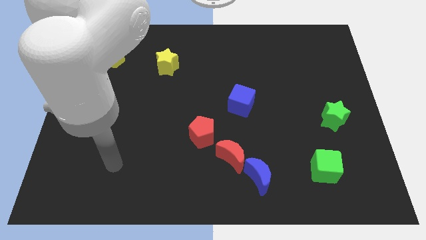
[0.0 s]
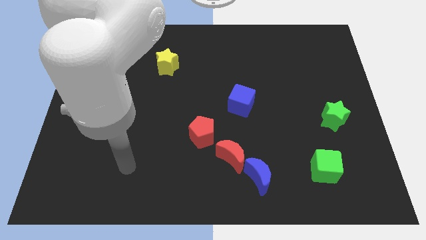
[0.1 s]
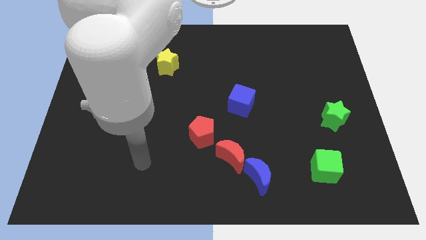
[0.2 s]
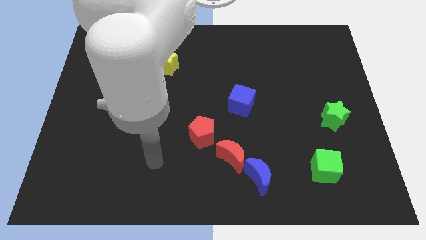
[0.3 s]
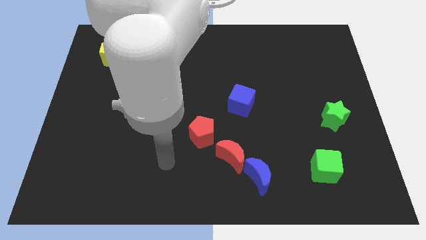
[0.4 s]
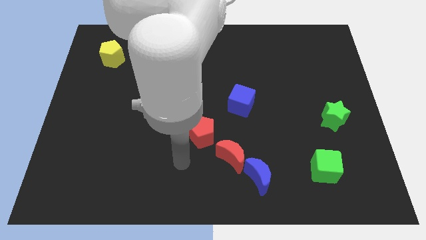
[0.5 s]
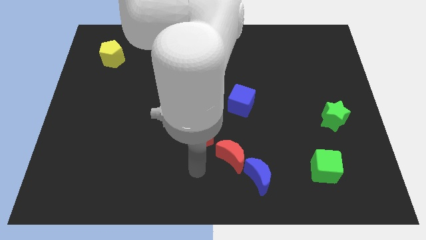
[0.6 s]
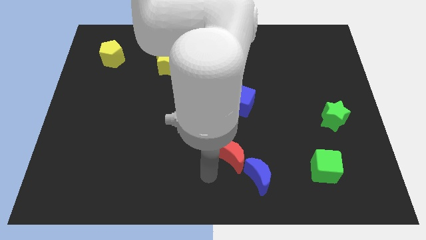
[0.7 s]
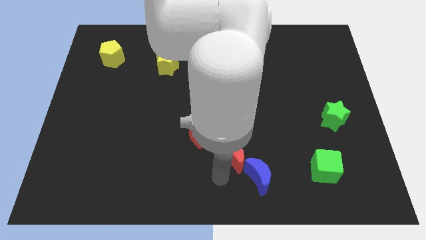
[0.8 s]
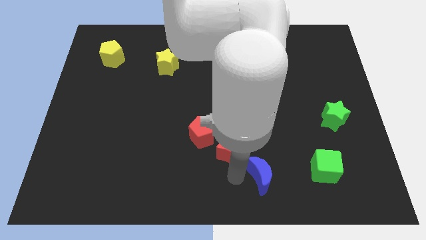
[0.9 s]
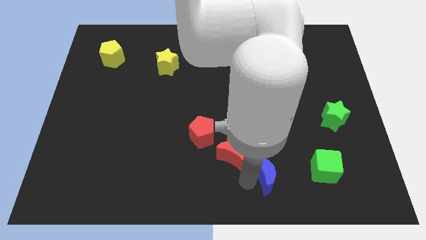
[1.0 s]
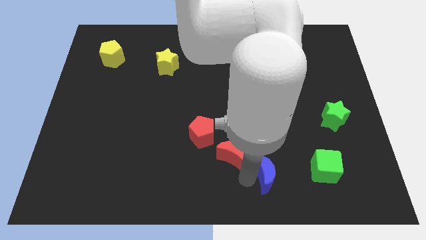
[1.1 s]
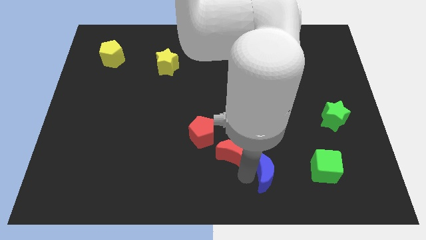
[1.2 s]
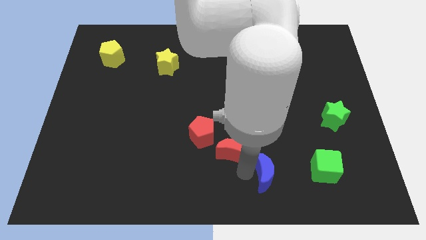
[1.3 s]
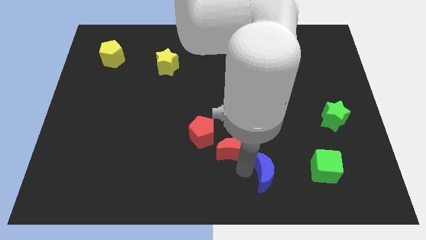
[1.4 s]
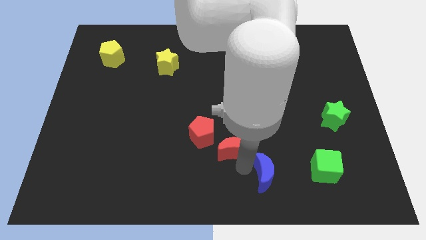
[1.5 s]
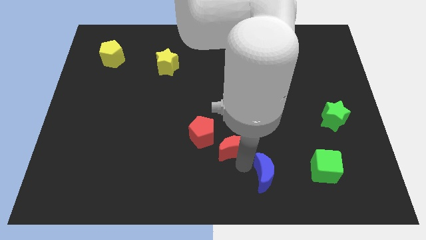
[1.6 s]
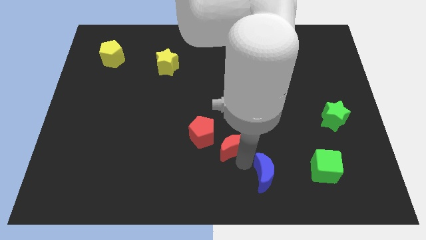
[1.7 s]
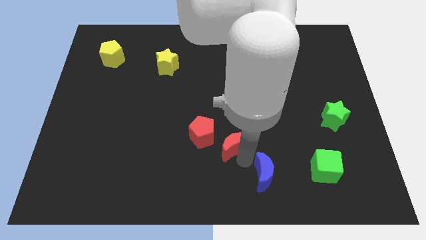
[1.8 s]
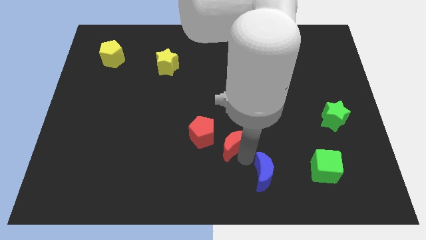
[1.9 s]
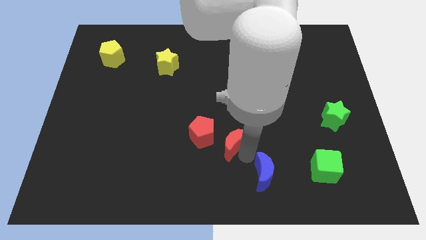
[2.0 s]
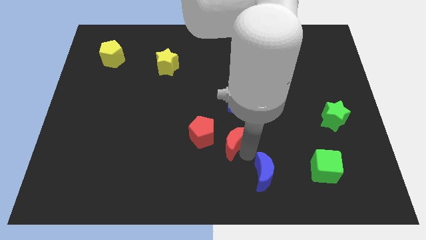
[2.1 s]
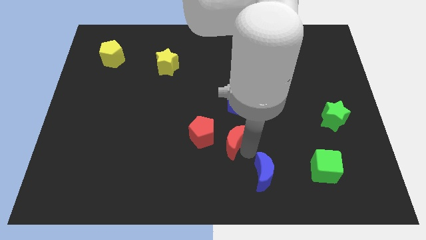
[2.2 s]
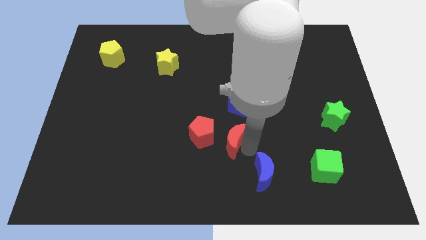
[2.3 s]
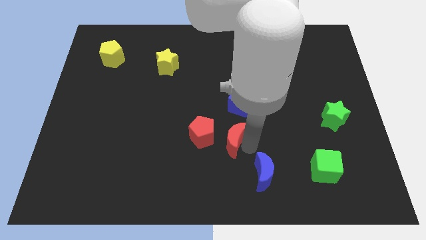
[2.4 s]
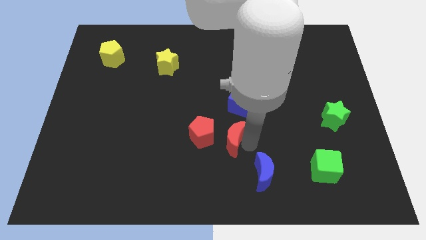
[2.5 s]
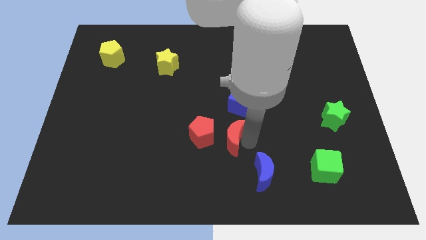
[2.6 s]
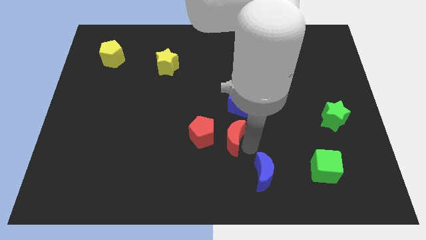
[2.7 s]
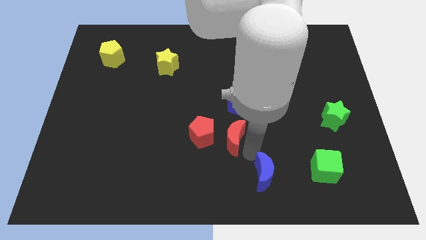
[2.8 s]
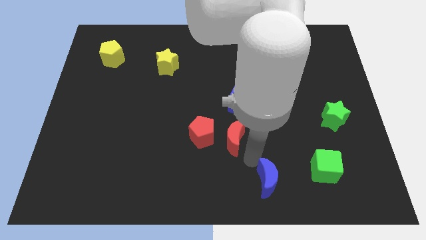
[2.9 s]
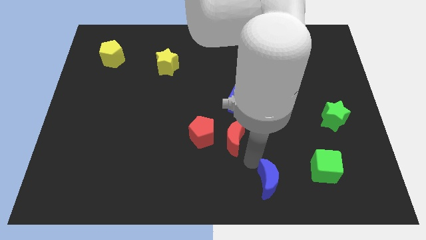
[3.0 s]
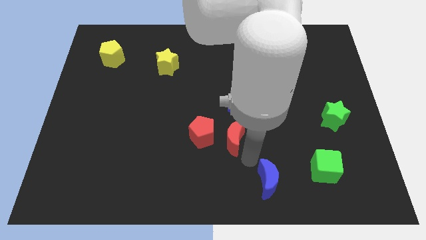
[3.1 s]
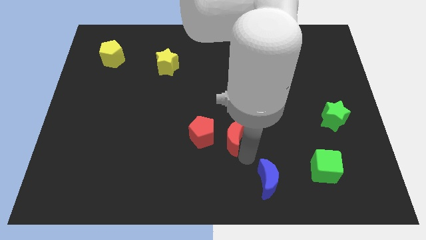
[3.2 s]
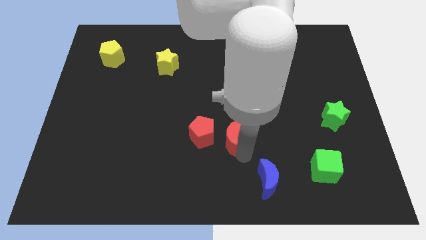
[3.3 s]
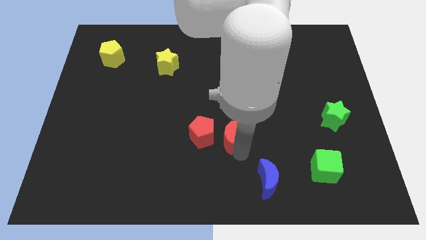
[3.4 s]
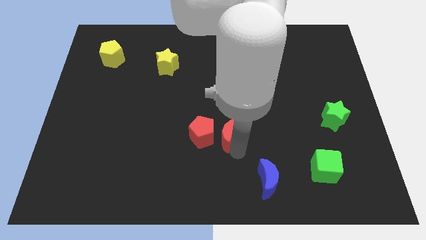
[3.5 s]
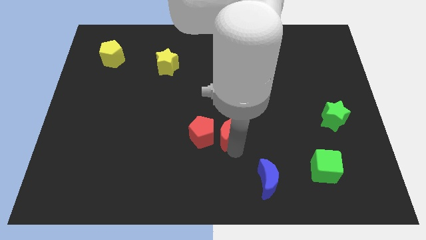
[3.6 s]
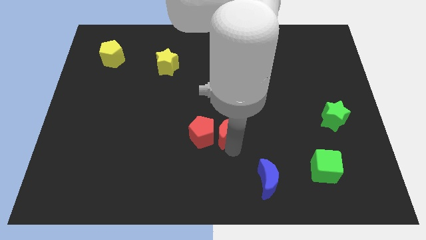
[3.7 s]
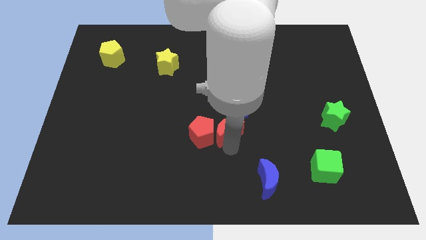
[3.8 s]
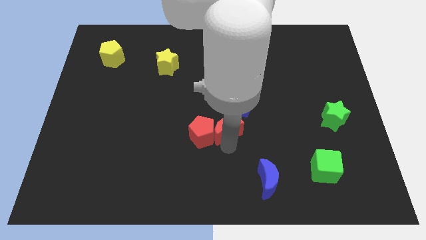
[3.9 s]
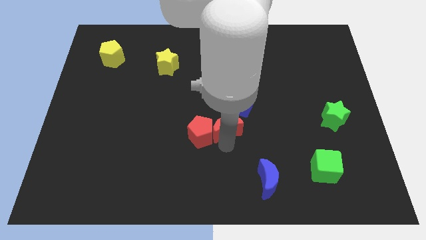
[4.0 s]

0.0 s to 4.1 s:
move the red moon upwards a little

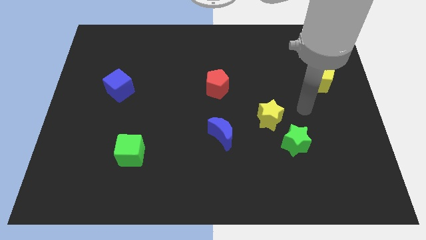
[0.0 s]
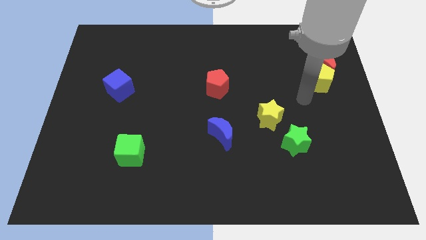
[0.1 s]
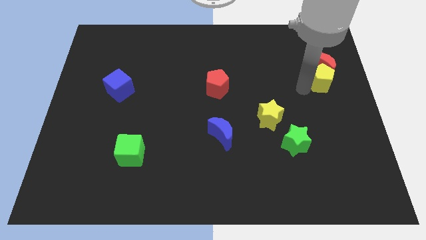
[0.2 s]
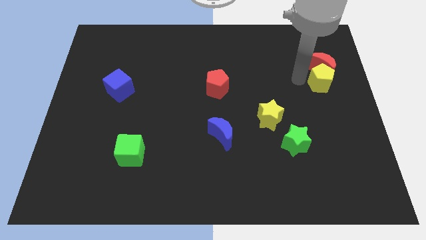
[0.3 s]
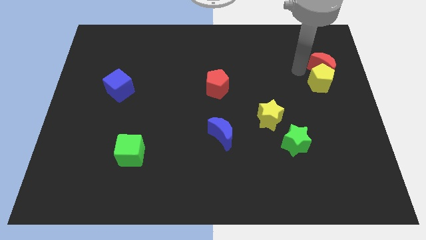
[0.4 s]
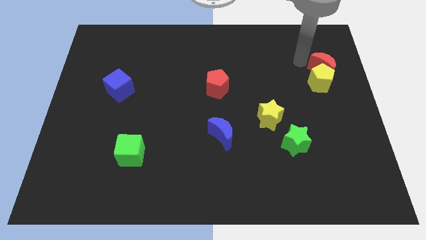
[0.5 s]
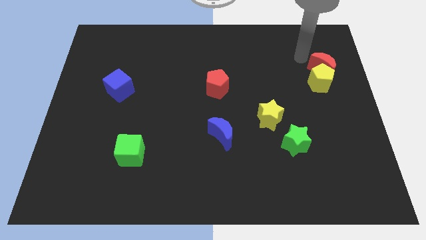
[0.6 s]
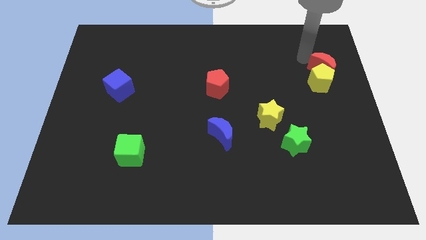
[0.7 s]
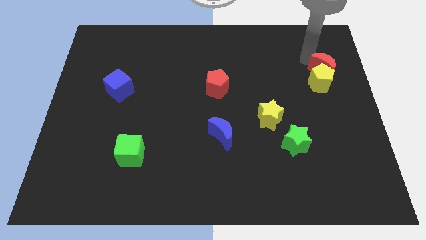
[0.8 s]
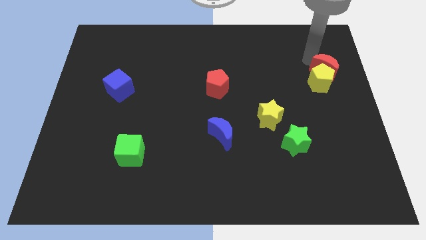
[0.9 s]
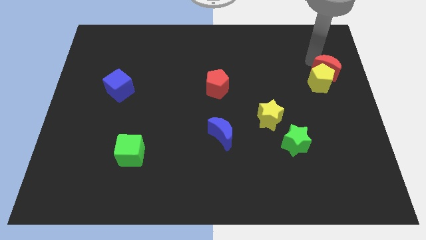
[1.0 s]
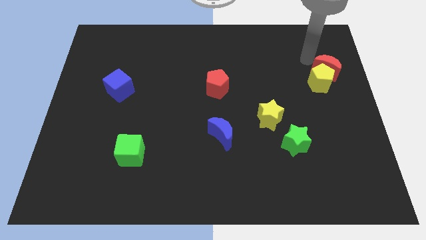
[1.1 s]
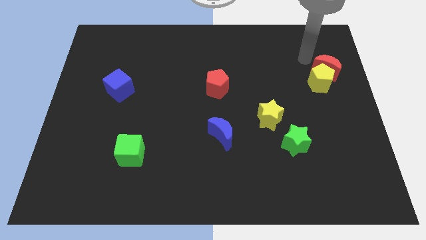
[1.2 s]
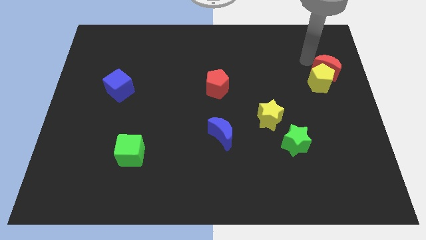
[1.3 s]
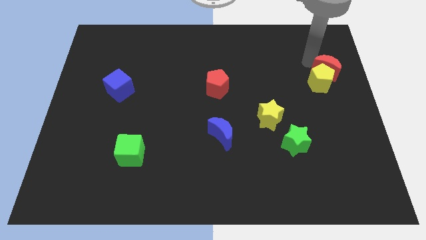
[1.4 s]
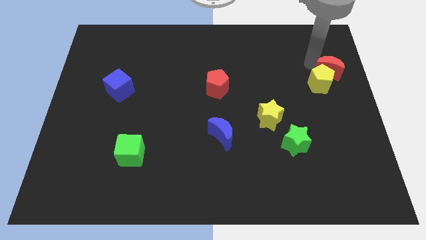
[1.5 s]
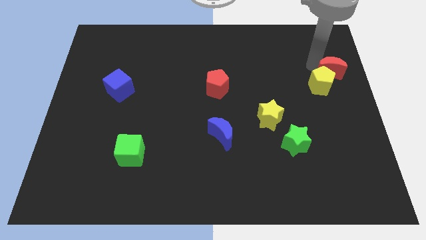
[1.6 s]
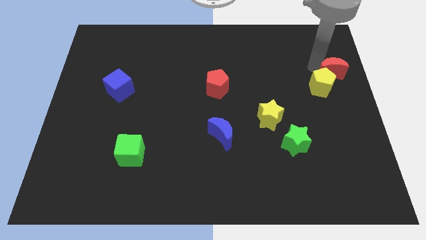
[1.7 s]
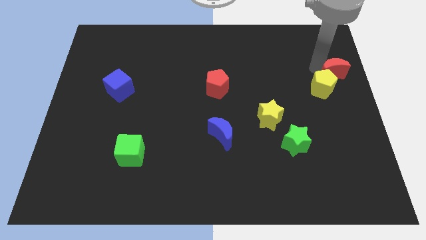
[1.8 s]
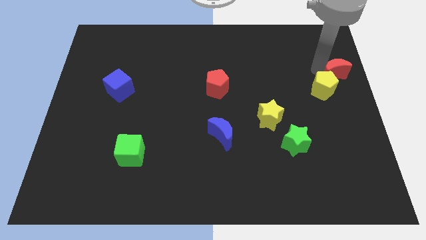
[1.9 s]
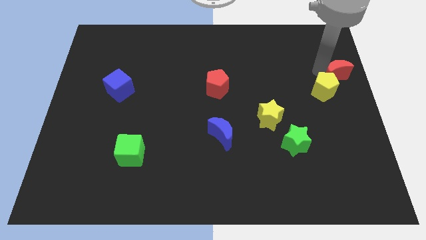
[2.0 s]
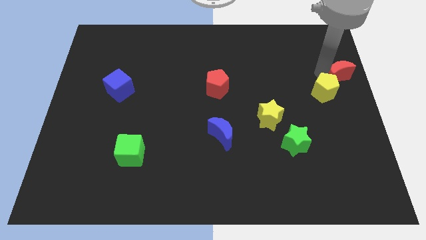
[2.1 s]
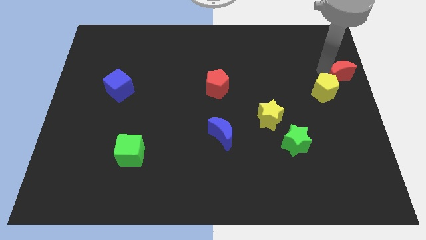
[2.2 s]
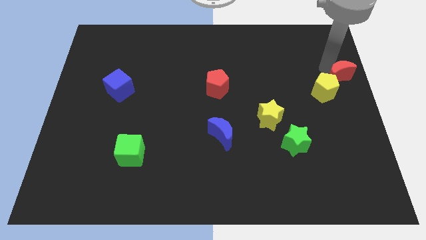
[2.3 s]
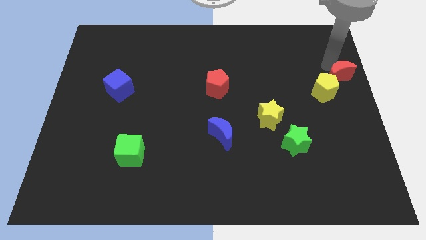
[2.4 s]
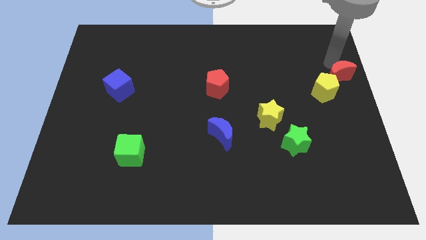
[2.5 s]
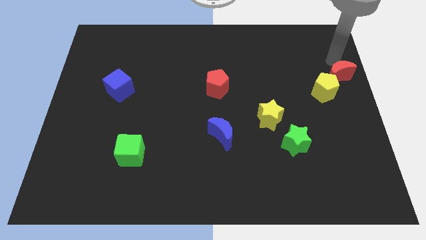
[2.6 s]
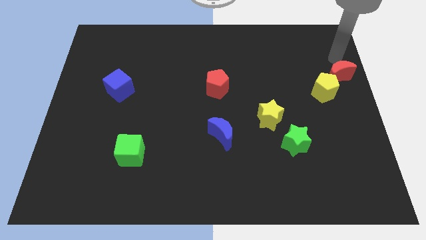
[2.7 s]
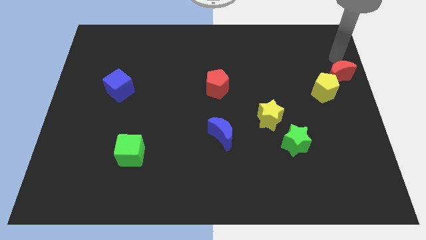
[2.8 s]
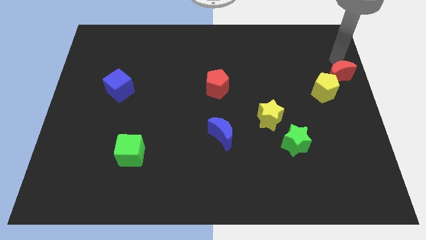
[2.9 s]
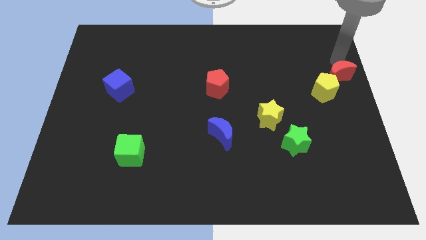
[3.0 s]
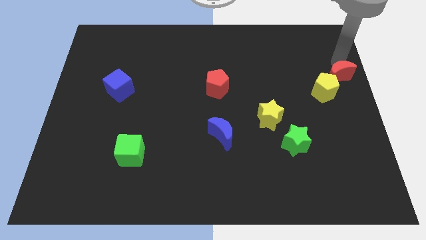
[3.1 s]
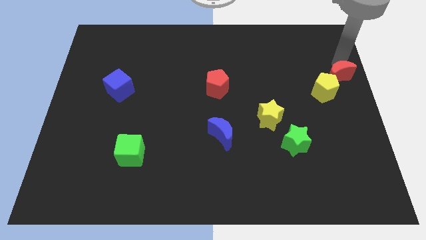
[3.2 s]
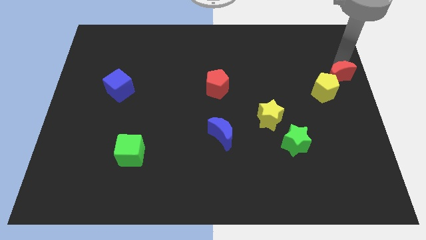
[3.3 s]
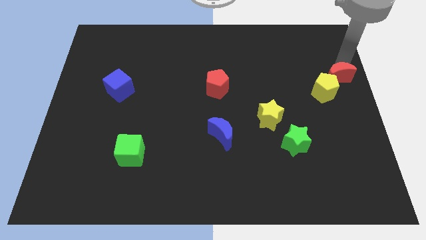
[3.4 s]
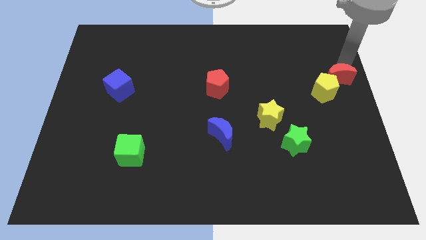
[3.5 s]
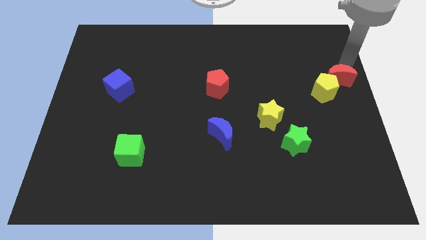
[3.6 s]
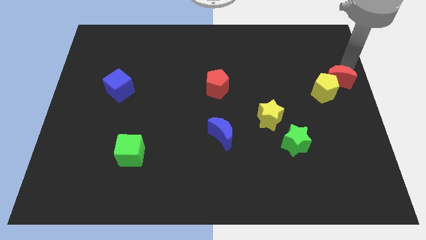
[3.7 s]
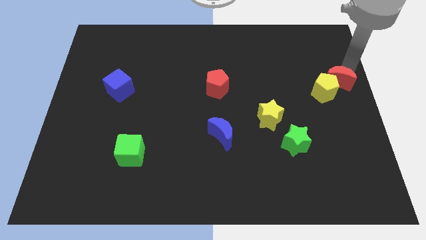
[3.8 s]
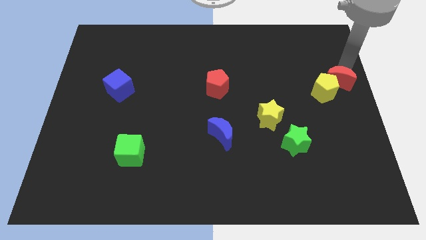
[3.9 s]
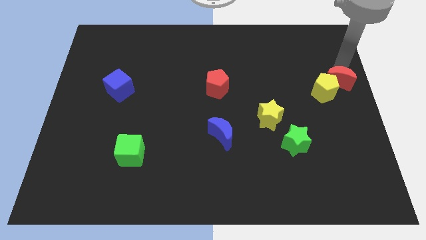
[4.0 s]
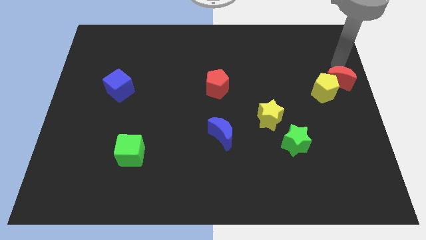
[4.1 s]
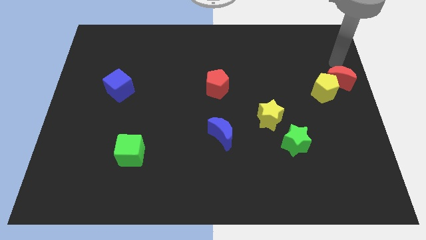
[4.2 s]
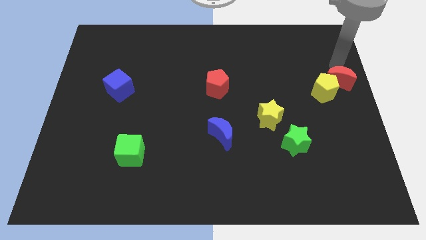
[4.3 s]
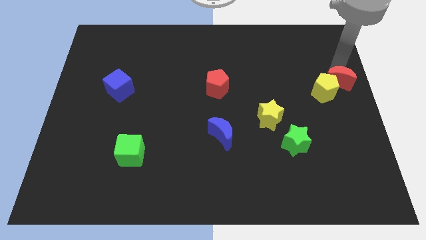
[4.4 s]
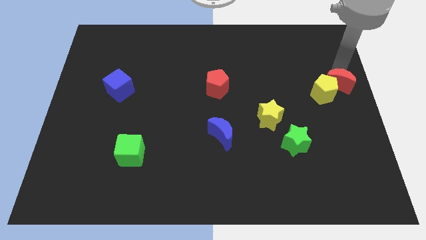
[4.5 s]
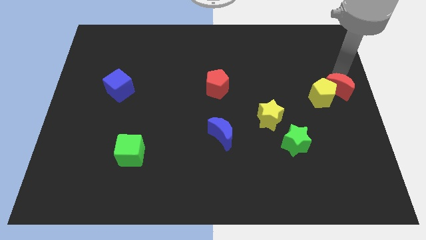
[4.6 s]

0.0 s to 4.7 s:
push the red moon a little bit downwards
